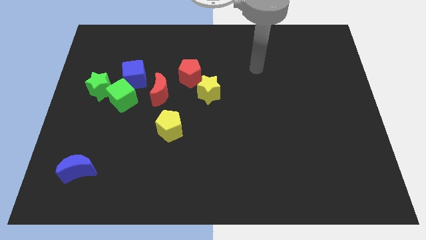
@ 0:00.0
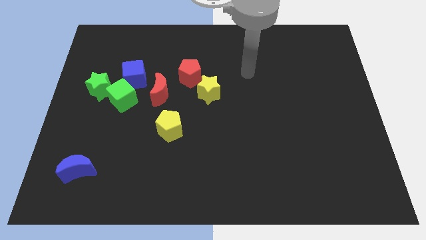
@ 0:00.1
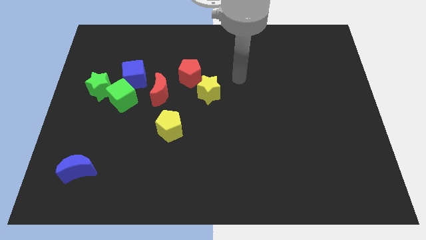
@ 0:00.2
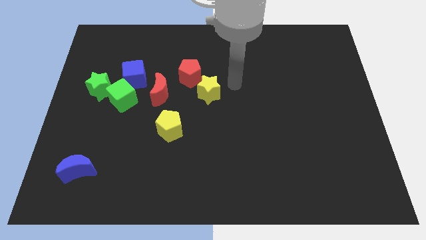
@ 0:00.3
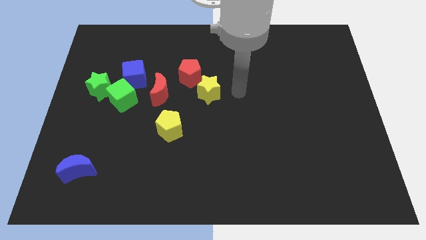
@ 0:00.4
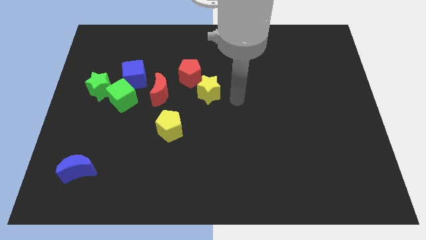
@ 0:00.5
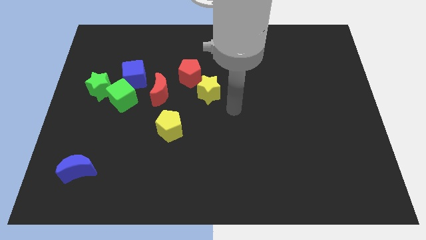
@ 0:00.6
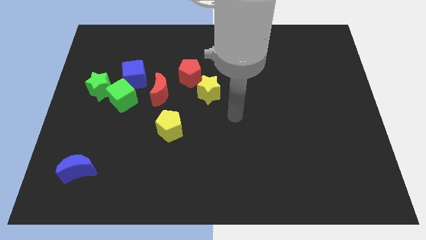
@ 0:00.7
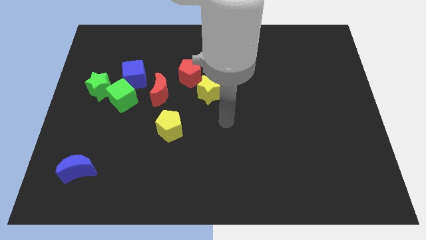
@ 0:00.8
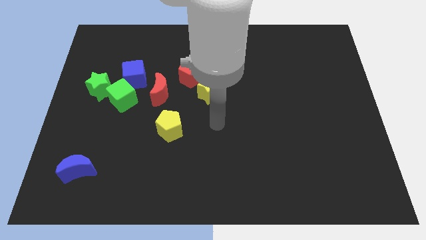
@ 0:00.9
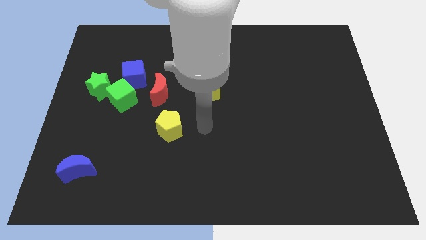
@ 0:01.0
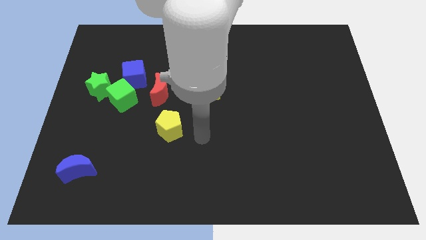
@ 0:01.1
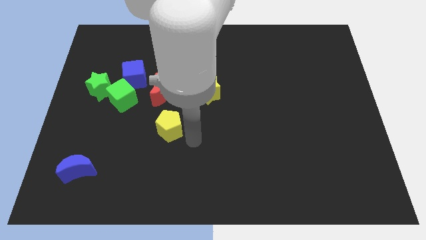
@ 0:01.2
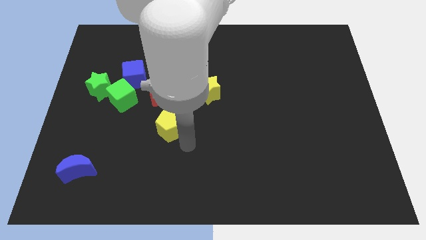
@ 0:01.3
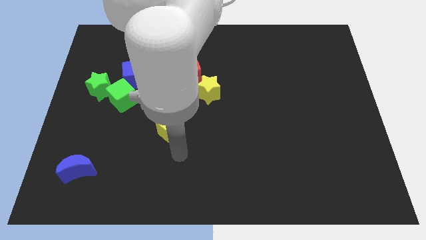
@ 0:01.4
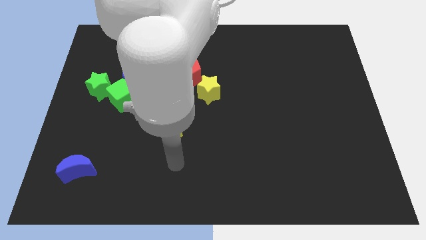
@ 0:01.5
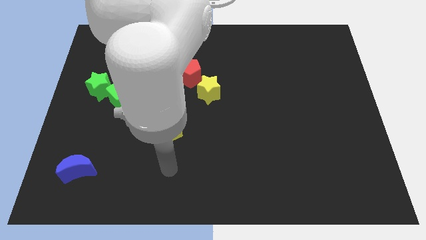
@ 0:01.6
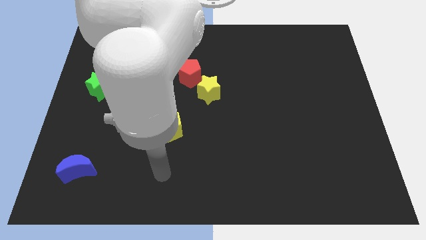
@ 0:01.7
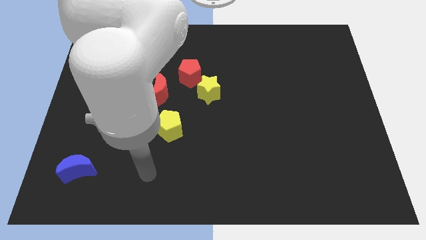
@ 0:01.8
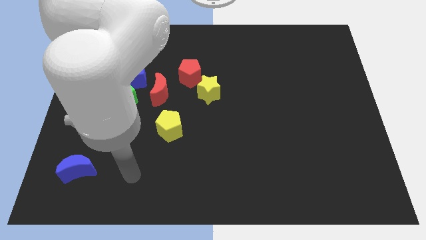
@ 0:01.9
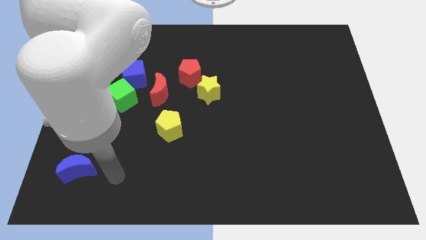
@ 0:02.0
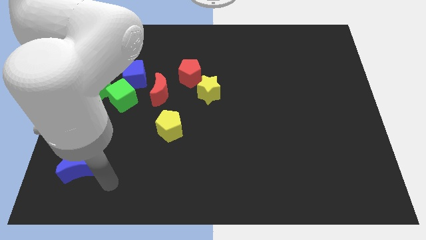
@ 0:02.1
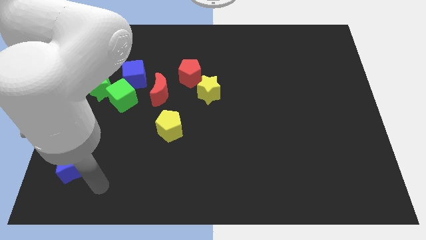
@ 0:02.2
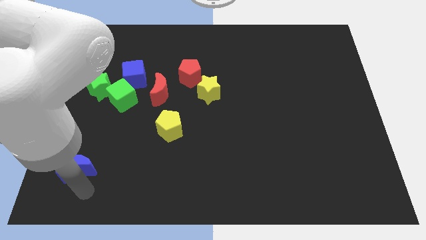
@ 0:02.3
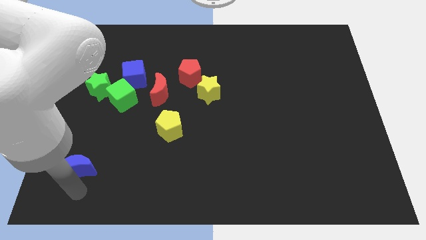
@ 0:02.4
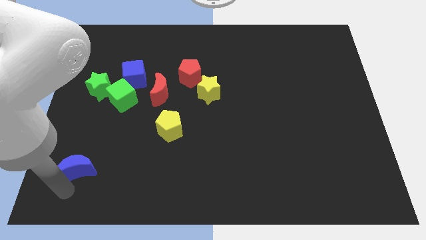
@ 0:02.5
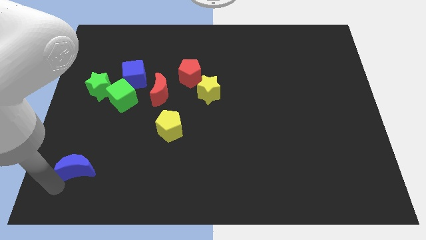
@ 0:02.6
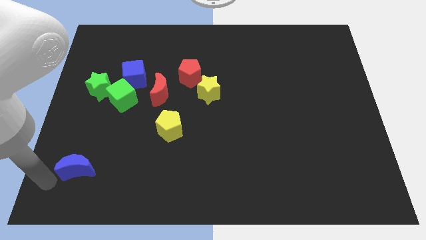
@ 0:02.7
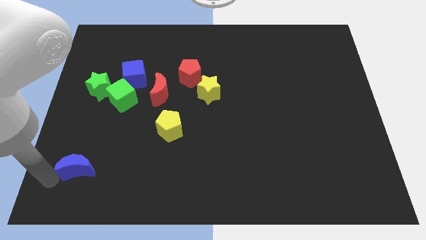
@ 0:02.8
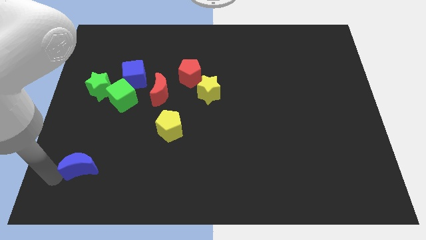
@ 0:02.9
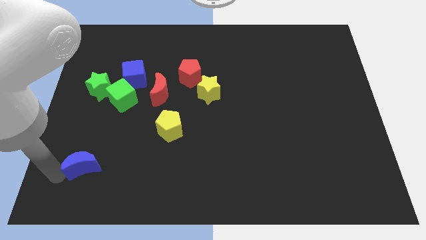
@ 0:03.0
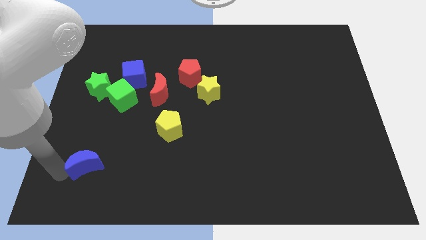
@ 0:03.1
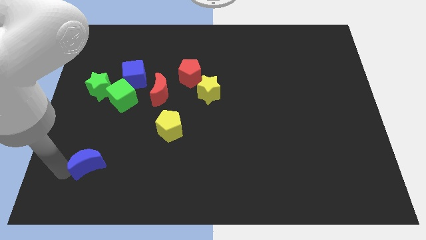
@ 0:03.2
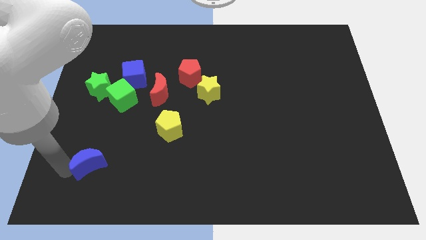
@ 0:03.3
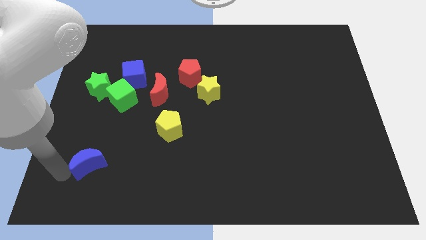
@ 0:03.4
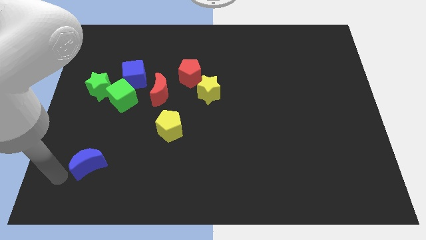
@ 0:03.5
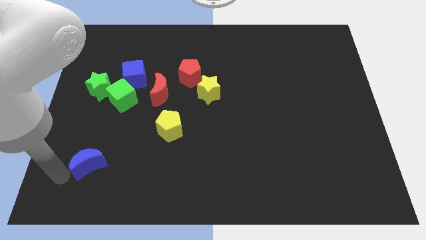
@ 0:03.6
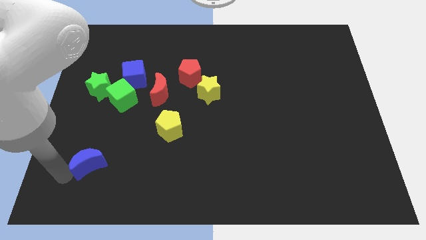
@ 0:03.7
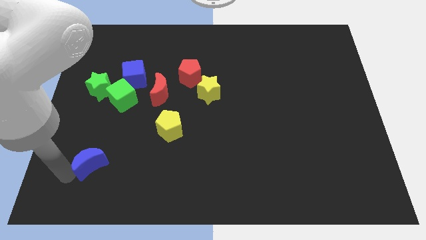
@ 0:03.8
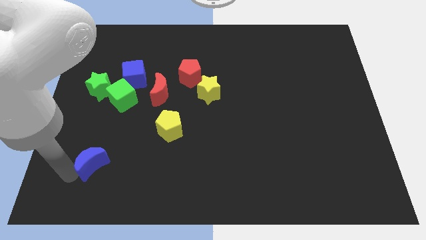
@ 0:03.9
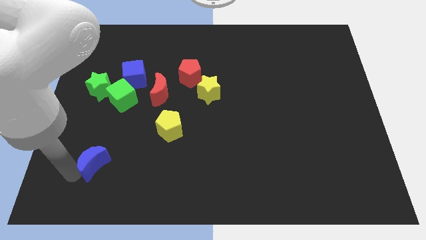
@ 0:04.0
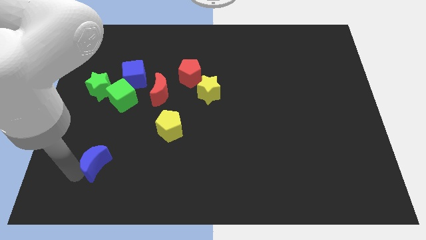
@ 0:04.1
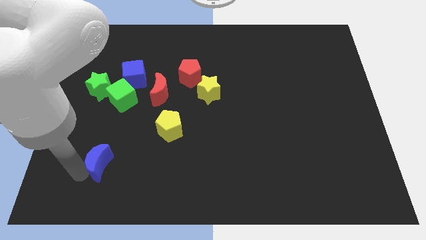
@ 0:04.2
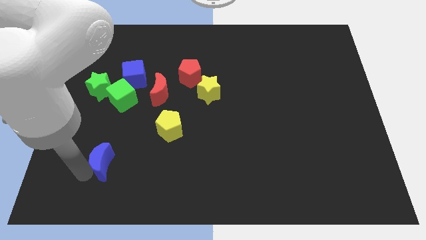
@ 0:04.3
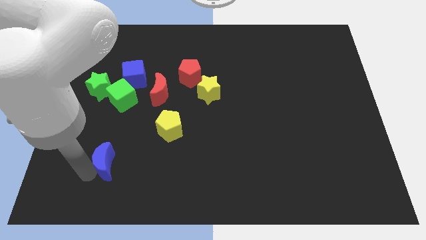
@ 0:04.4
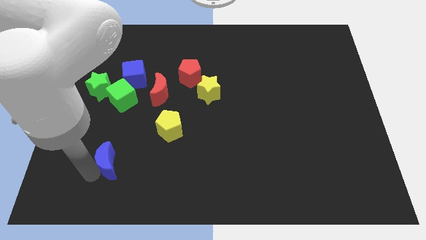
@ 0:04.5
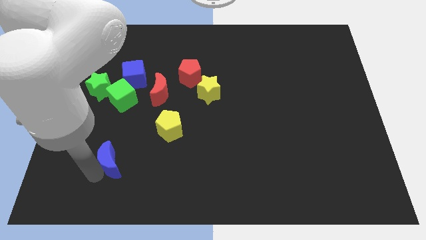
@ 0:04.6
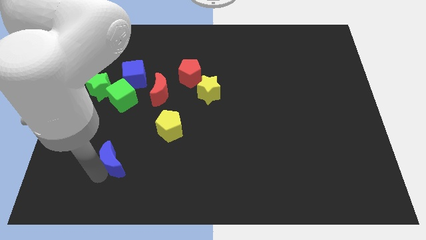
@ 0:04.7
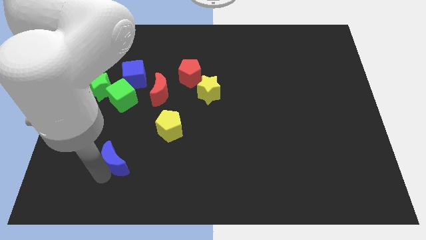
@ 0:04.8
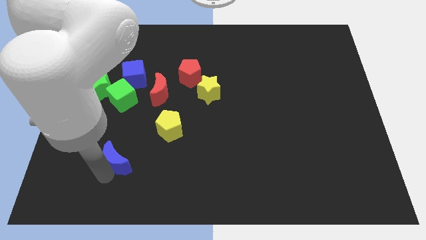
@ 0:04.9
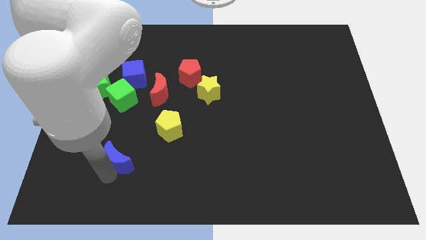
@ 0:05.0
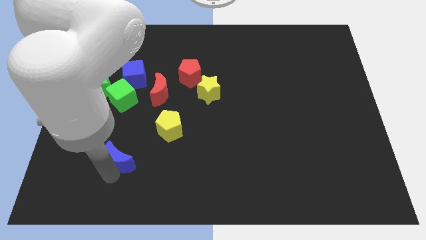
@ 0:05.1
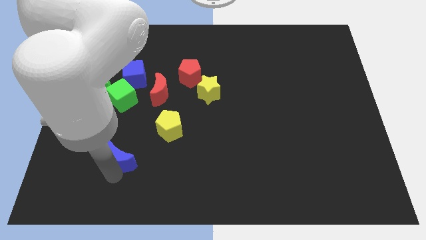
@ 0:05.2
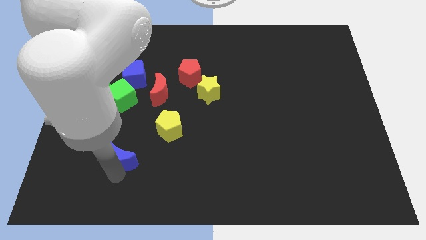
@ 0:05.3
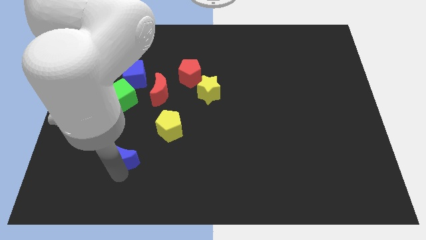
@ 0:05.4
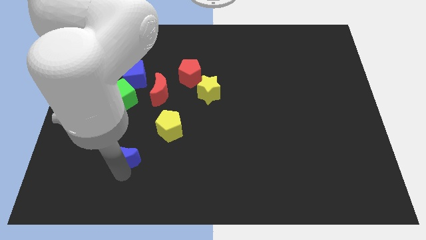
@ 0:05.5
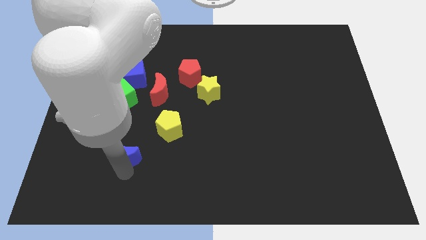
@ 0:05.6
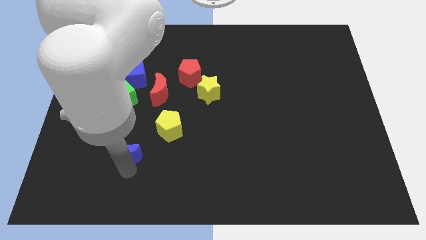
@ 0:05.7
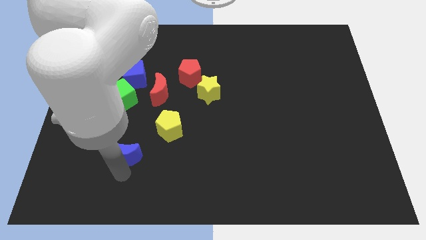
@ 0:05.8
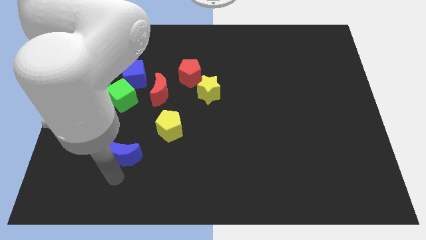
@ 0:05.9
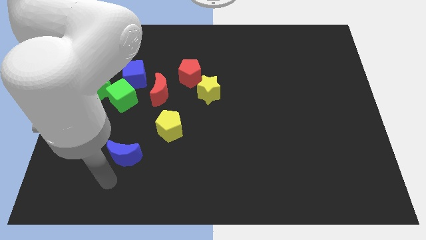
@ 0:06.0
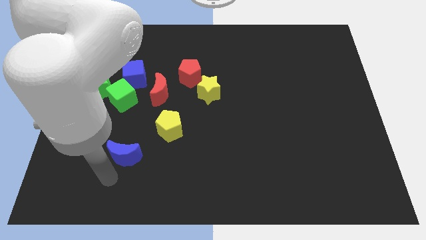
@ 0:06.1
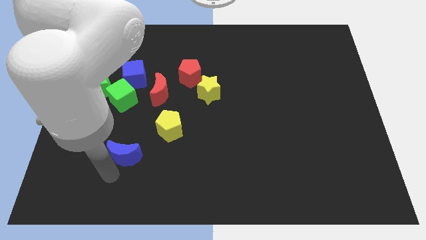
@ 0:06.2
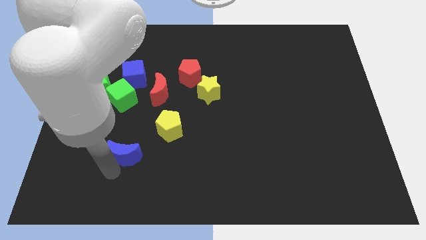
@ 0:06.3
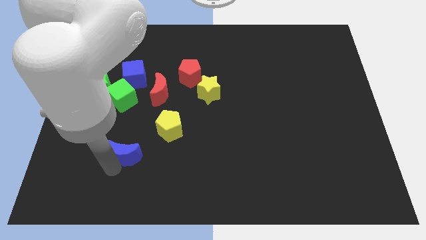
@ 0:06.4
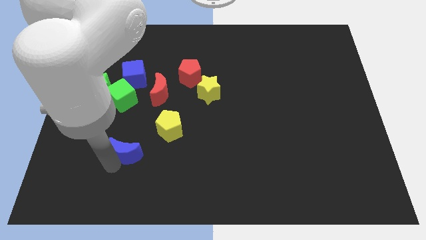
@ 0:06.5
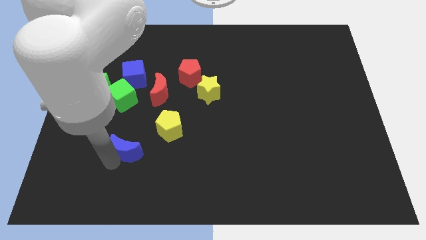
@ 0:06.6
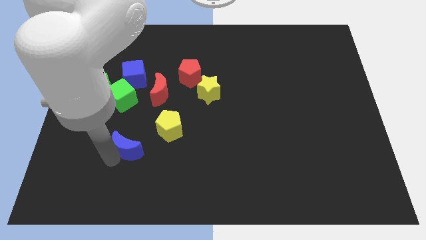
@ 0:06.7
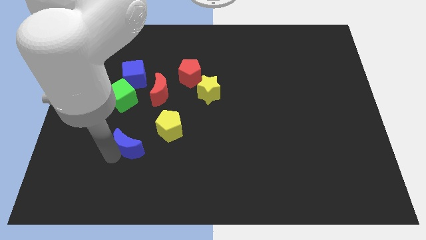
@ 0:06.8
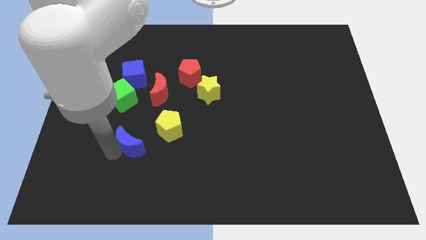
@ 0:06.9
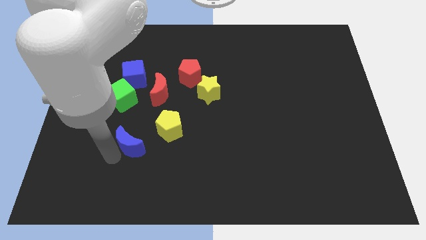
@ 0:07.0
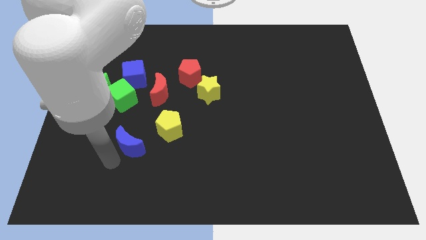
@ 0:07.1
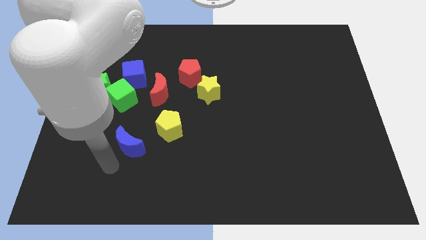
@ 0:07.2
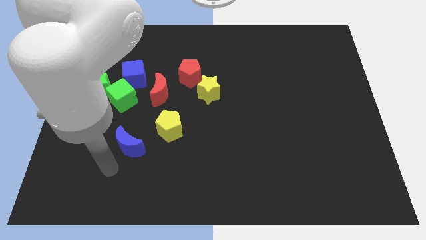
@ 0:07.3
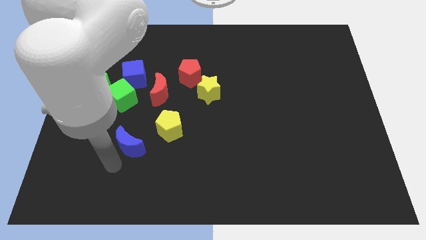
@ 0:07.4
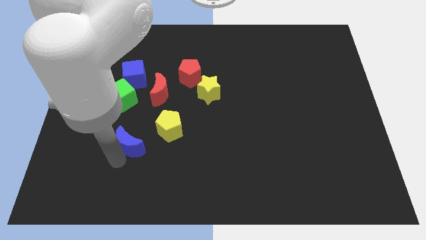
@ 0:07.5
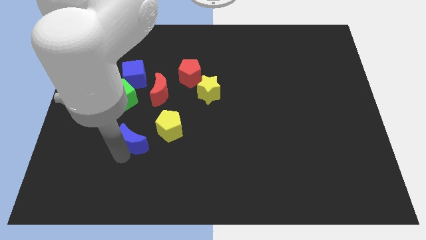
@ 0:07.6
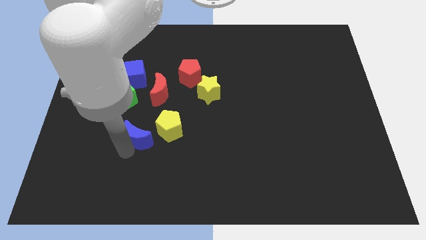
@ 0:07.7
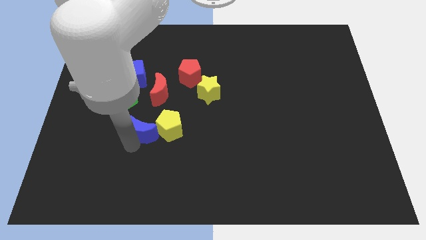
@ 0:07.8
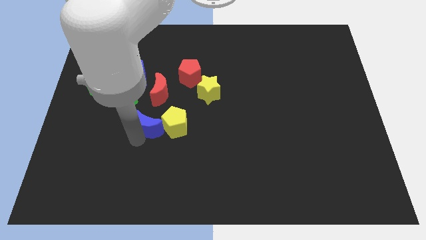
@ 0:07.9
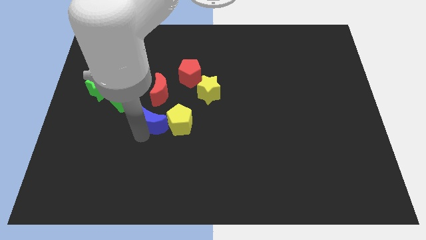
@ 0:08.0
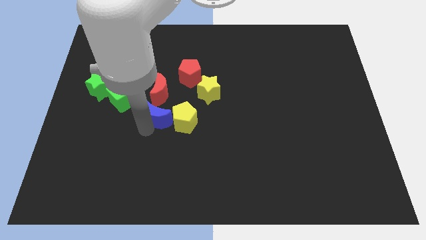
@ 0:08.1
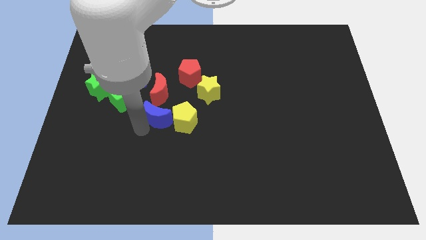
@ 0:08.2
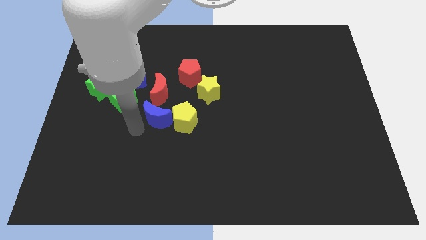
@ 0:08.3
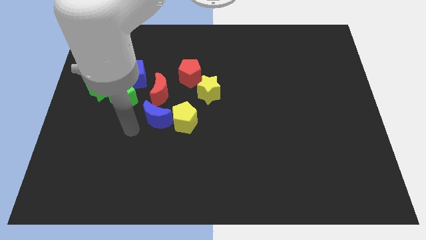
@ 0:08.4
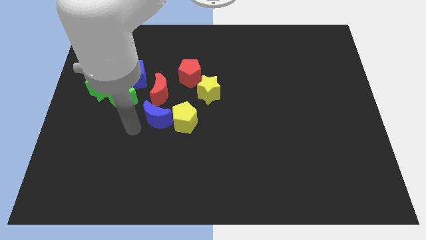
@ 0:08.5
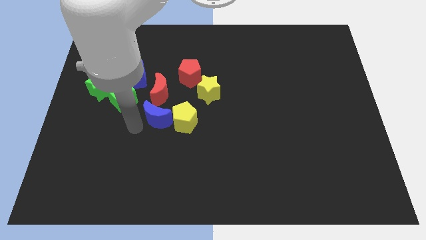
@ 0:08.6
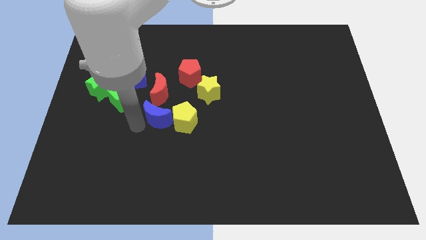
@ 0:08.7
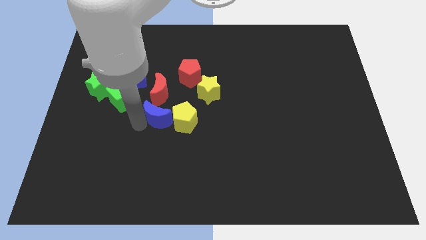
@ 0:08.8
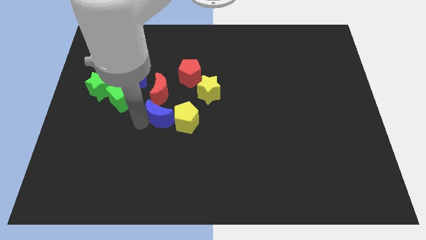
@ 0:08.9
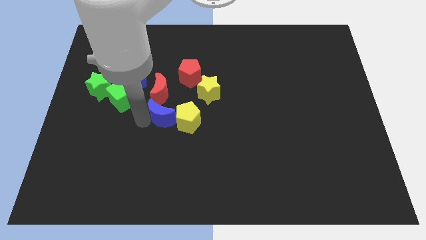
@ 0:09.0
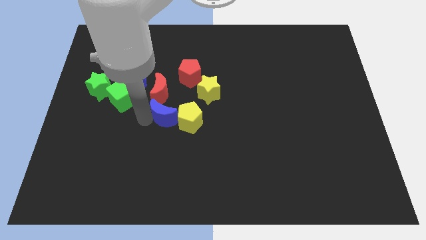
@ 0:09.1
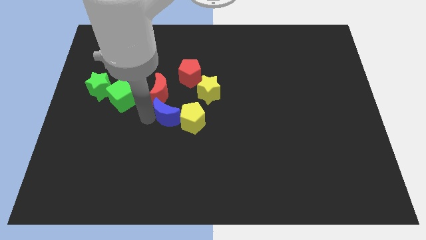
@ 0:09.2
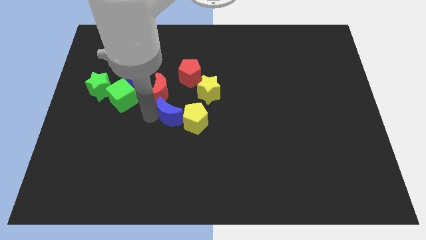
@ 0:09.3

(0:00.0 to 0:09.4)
push the blue moon to the bottom side of the red pentagon
